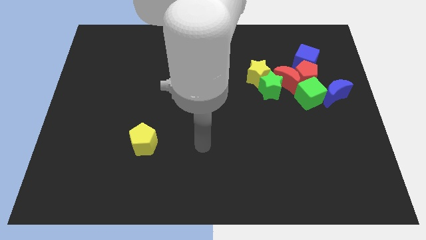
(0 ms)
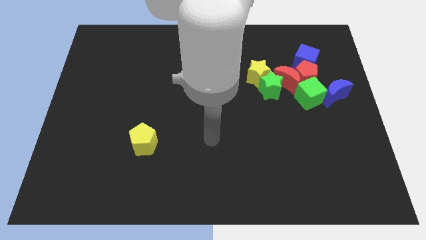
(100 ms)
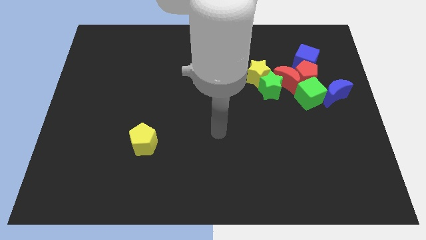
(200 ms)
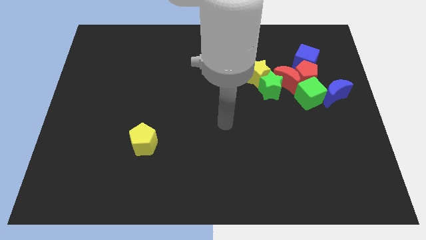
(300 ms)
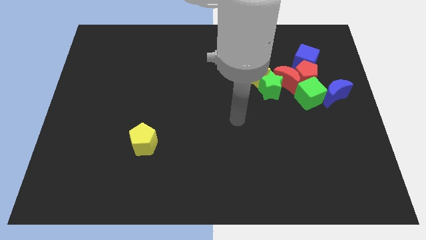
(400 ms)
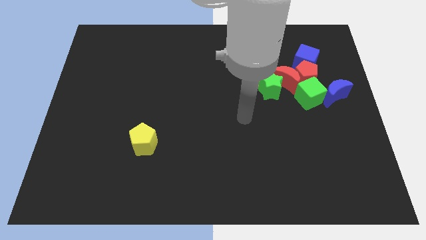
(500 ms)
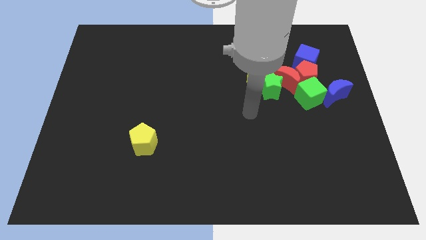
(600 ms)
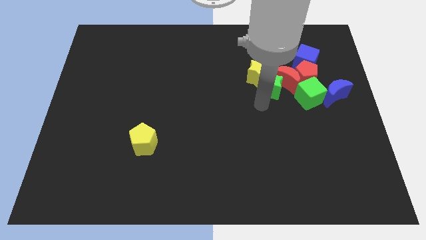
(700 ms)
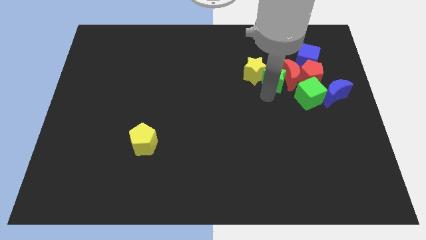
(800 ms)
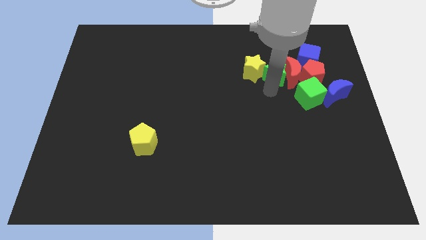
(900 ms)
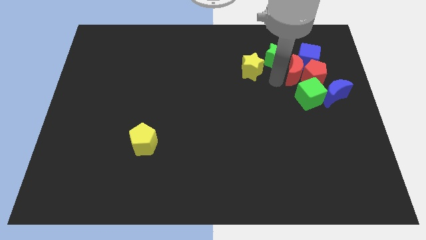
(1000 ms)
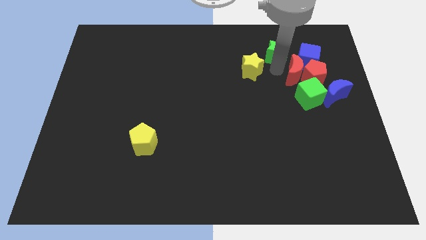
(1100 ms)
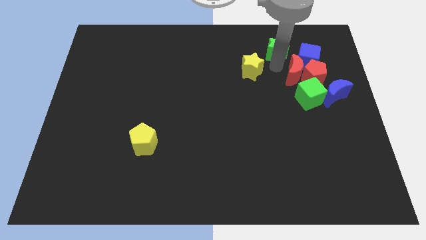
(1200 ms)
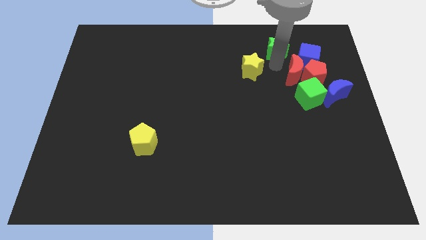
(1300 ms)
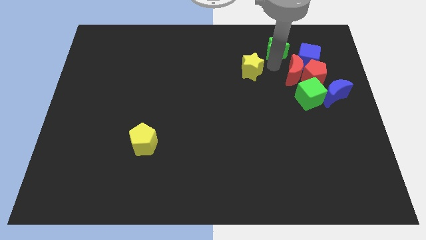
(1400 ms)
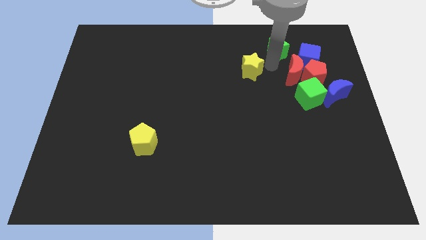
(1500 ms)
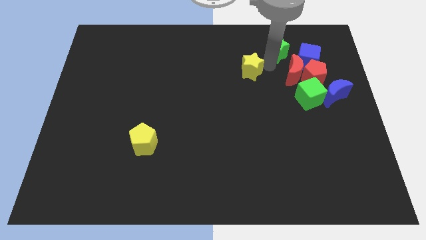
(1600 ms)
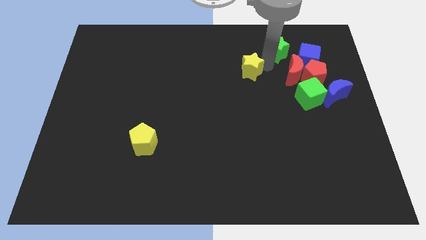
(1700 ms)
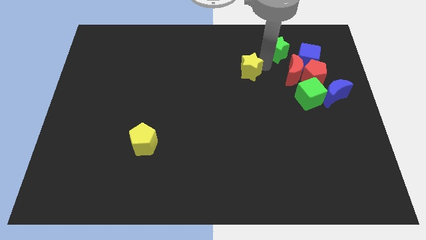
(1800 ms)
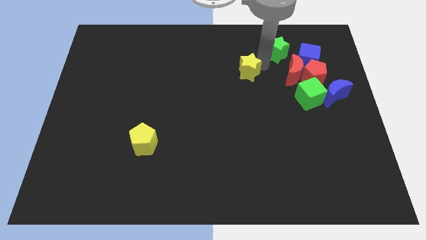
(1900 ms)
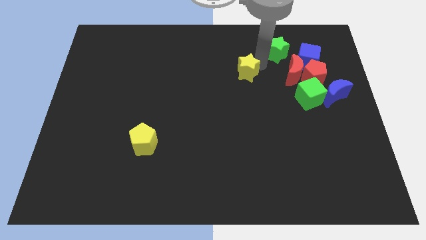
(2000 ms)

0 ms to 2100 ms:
move the yellow star away from the green star and red moon

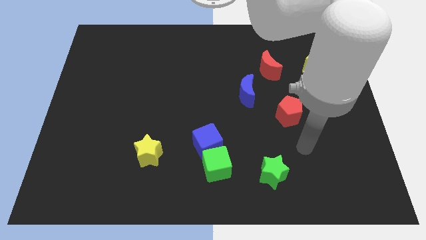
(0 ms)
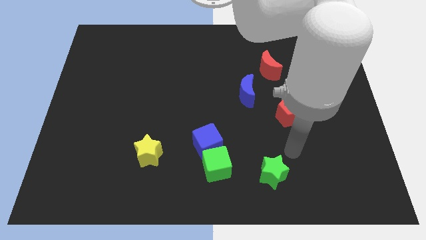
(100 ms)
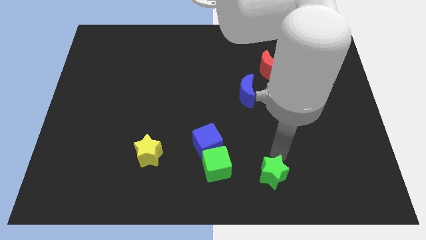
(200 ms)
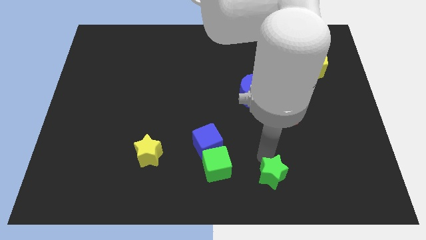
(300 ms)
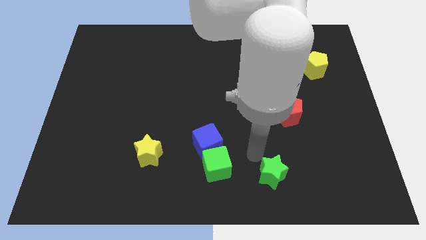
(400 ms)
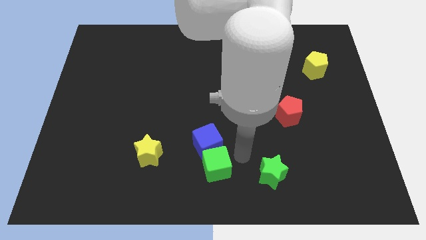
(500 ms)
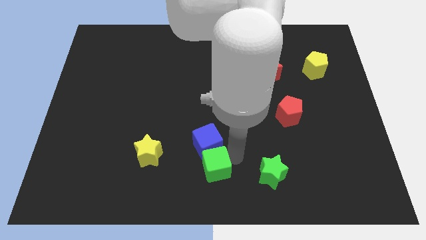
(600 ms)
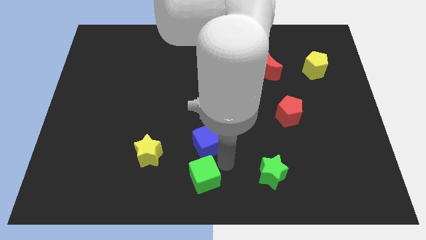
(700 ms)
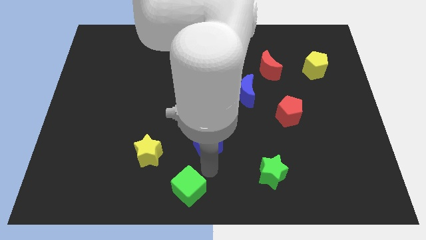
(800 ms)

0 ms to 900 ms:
pull the blue cube apart from the green cube

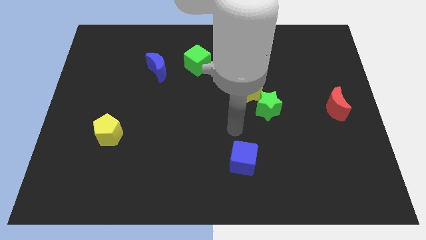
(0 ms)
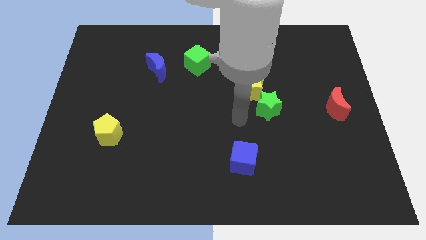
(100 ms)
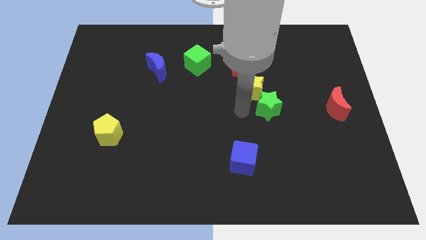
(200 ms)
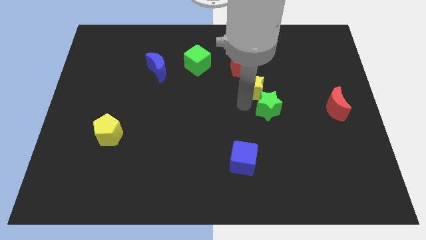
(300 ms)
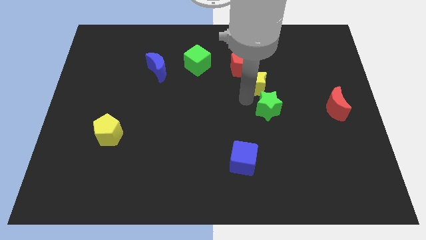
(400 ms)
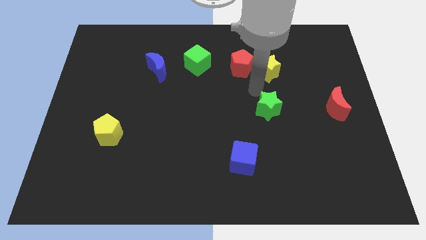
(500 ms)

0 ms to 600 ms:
move the green star away from the yellow star

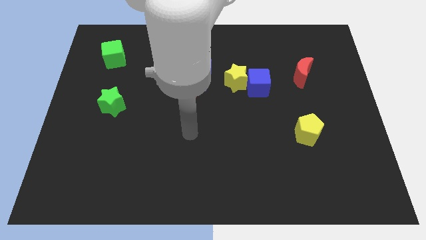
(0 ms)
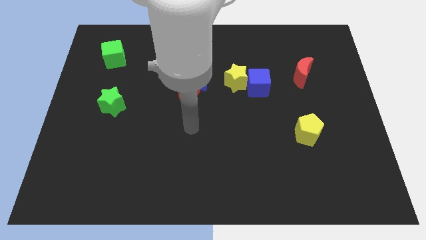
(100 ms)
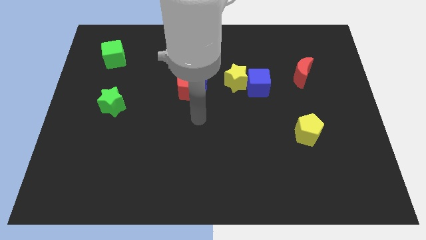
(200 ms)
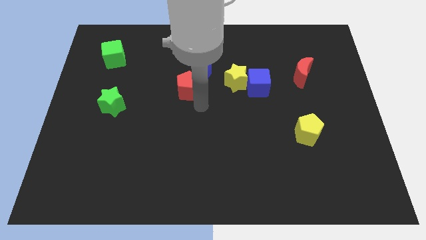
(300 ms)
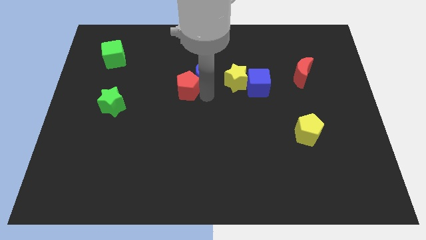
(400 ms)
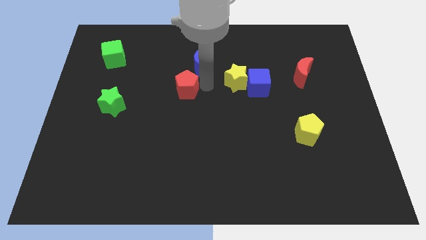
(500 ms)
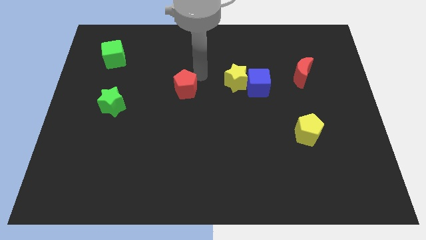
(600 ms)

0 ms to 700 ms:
separate the red pentagon from the blue moon

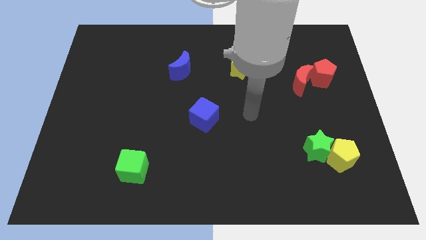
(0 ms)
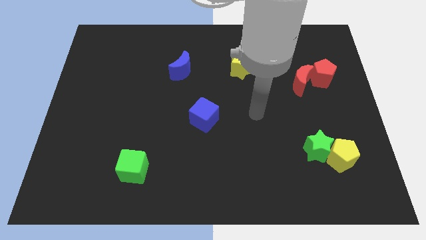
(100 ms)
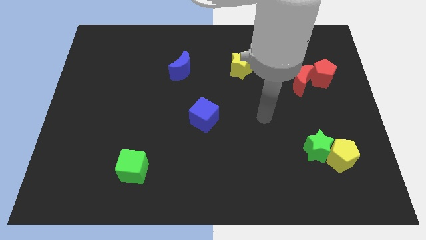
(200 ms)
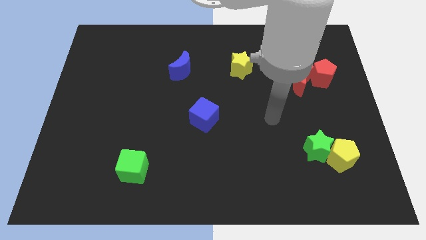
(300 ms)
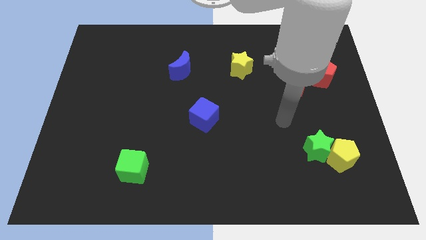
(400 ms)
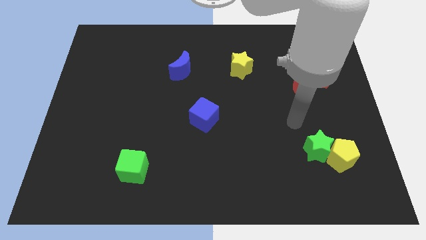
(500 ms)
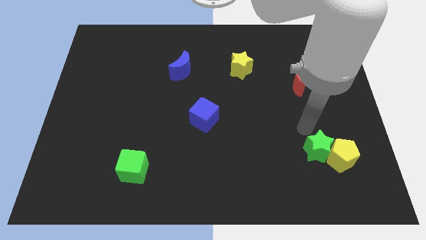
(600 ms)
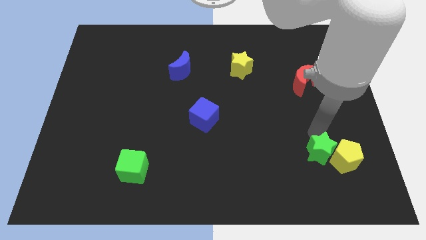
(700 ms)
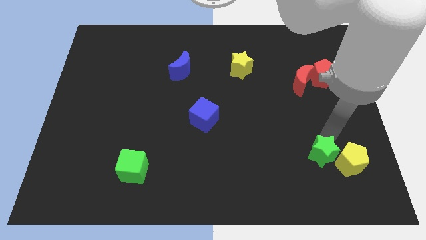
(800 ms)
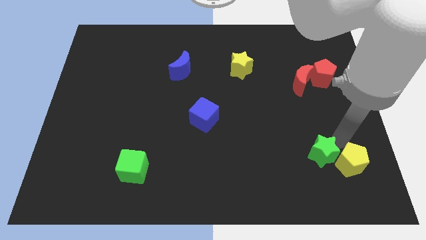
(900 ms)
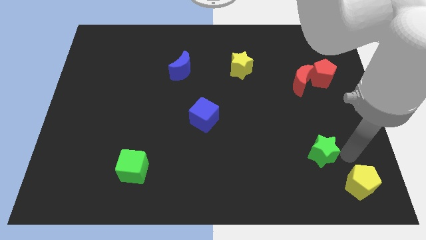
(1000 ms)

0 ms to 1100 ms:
move the green star away from the yellow pentagon

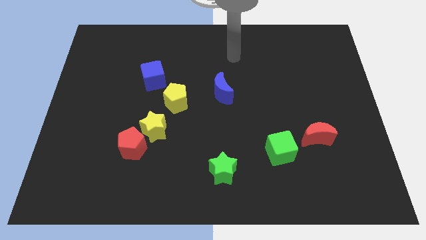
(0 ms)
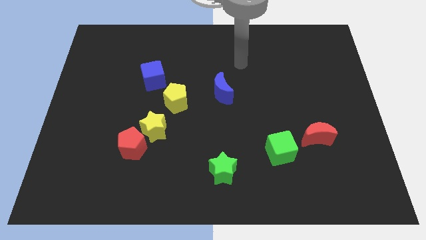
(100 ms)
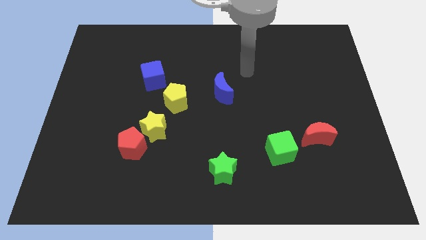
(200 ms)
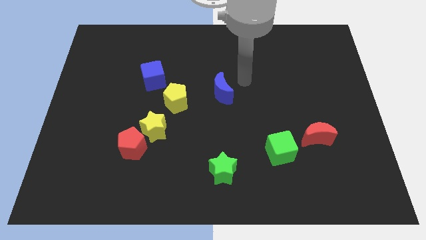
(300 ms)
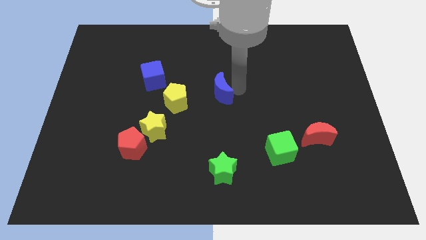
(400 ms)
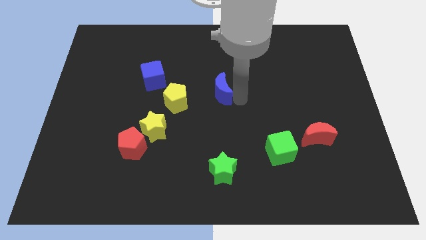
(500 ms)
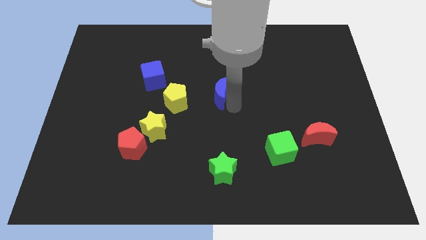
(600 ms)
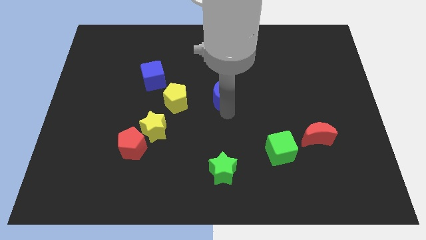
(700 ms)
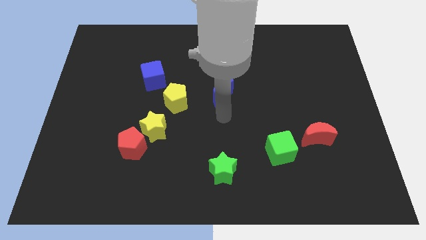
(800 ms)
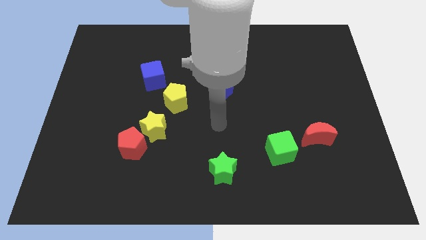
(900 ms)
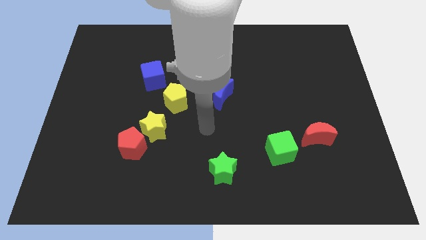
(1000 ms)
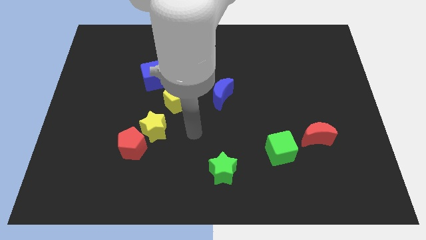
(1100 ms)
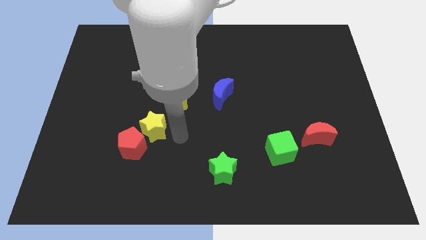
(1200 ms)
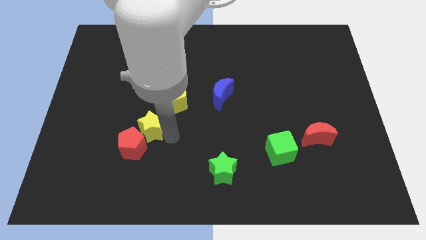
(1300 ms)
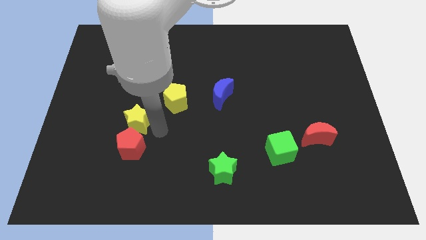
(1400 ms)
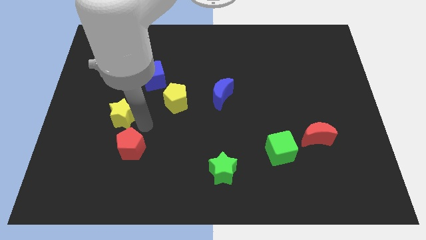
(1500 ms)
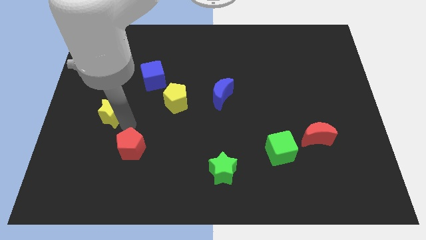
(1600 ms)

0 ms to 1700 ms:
separate the red pentagon from the yellow star

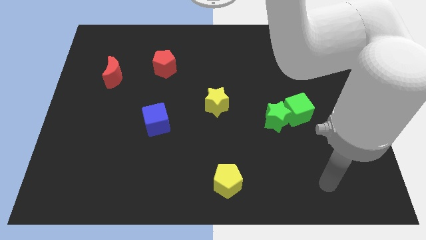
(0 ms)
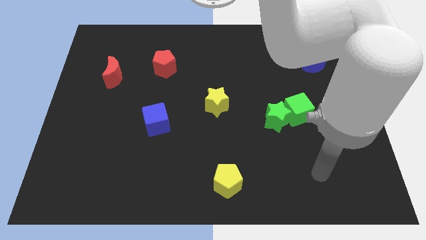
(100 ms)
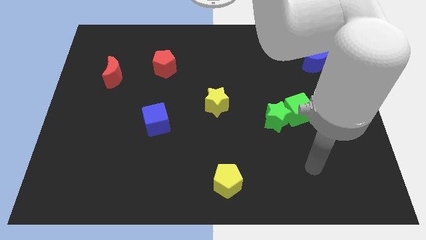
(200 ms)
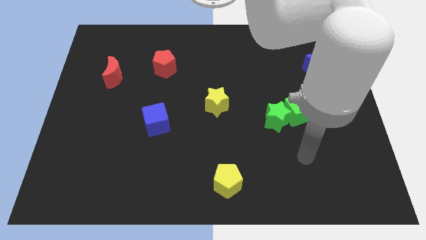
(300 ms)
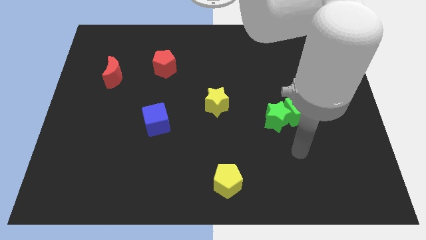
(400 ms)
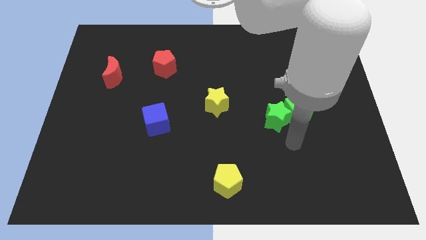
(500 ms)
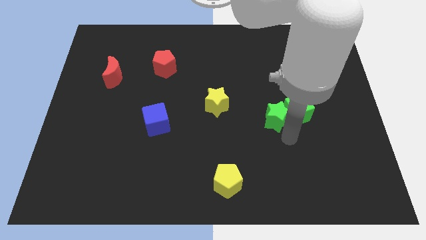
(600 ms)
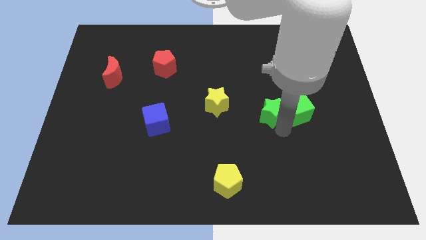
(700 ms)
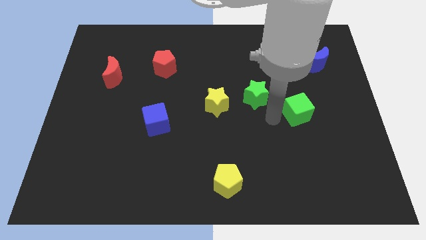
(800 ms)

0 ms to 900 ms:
move the green cube away from the green star

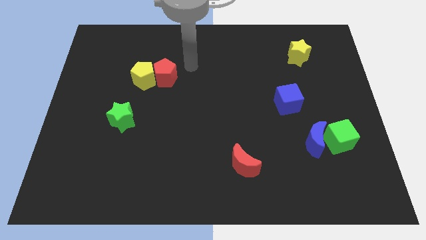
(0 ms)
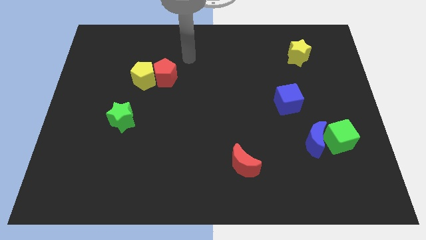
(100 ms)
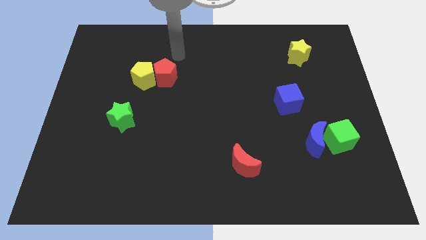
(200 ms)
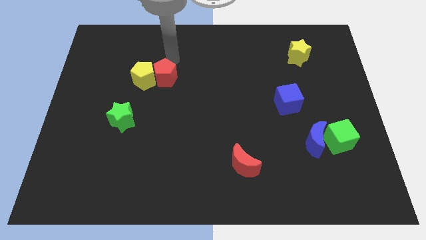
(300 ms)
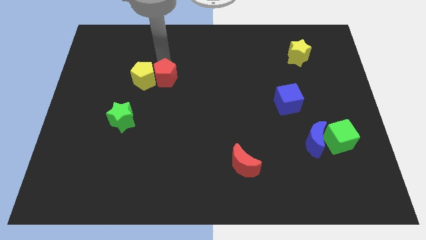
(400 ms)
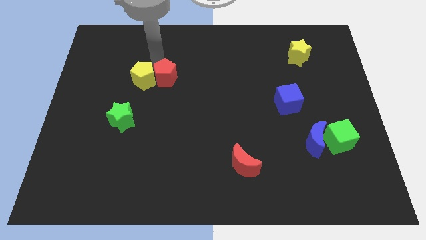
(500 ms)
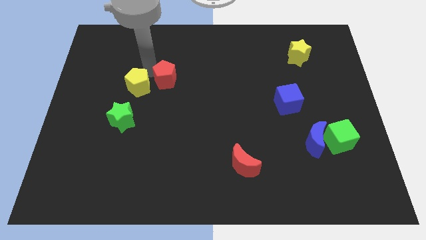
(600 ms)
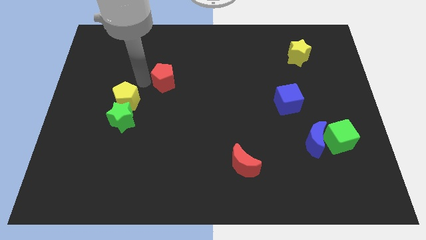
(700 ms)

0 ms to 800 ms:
move the red pentagon away from the yellow pentagon

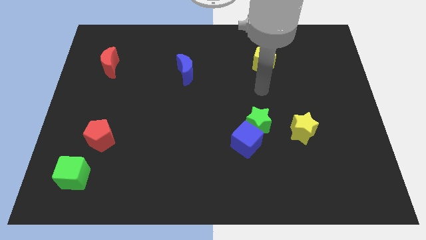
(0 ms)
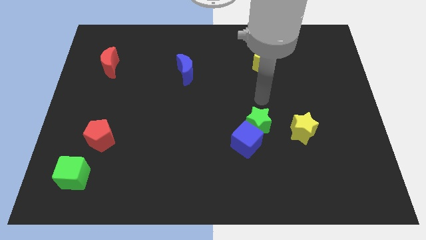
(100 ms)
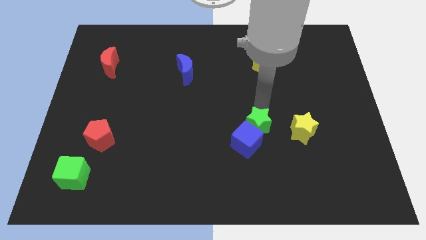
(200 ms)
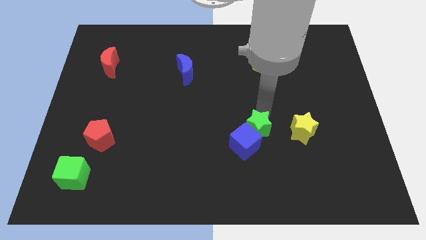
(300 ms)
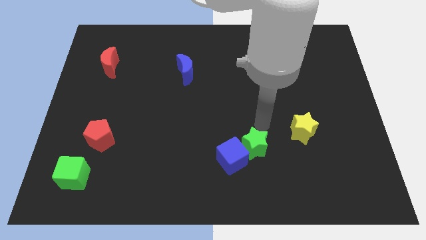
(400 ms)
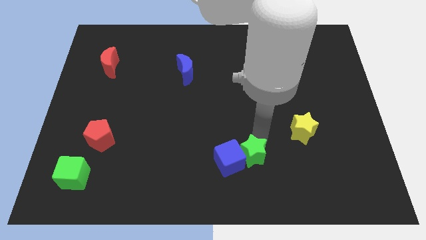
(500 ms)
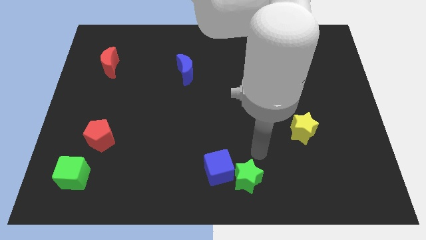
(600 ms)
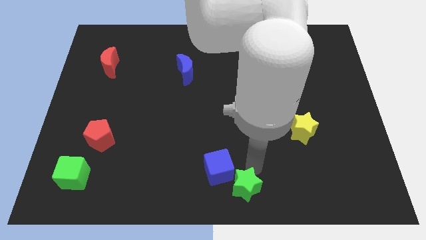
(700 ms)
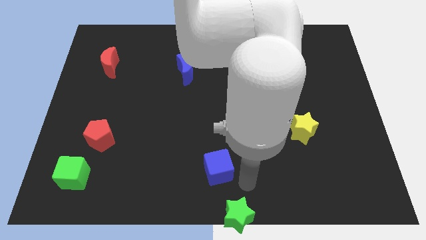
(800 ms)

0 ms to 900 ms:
move the blue cube away from the green star
